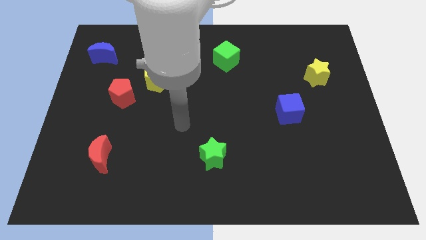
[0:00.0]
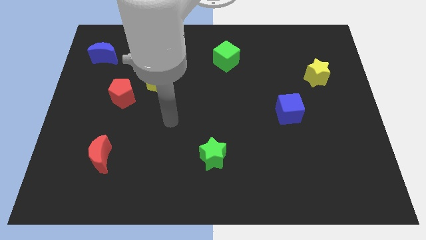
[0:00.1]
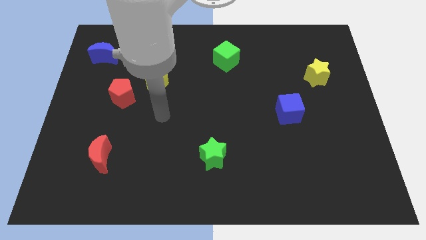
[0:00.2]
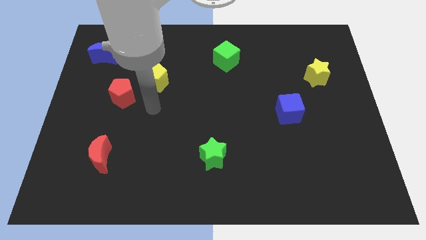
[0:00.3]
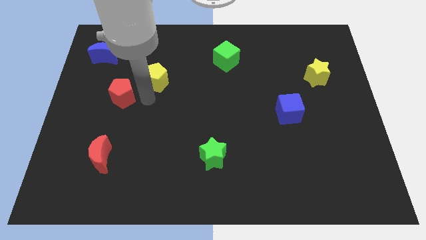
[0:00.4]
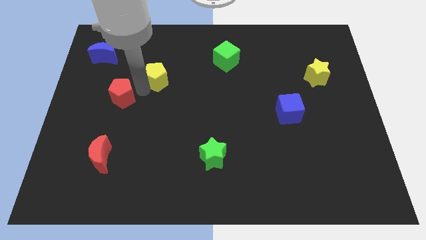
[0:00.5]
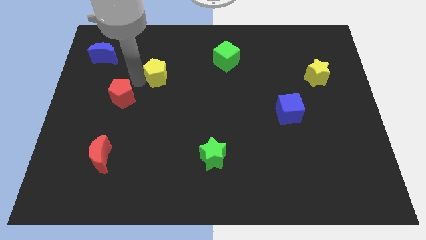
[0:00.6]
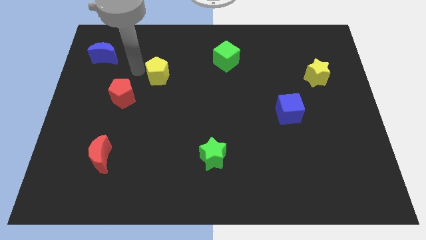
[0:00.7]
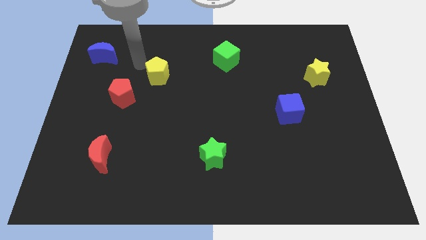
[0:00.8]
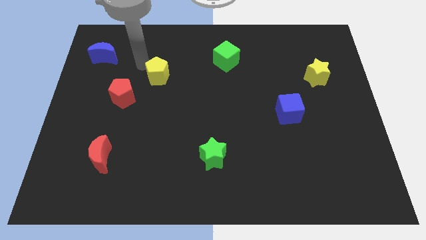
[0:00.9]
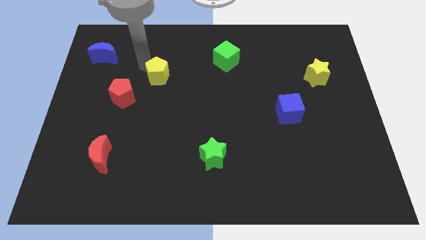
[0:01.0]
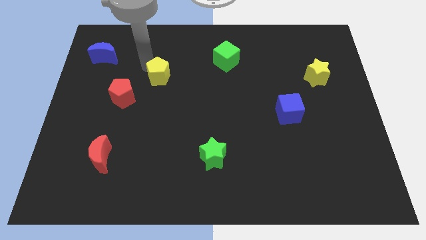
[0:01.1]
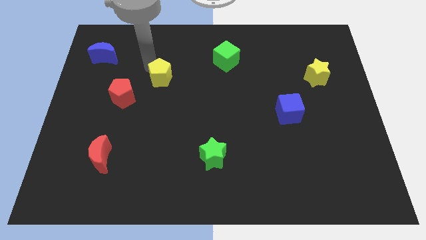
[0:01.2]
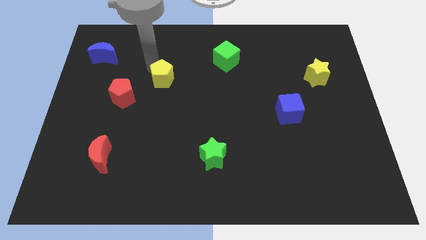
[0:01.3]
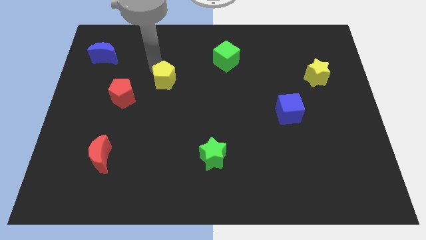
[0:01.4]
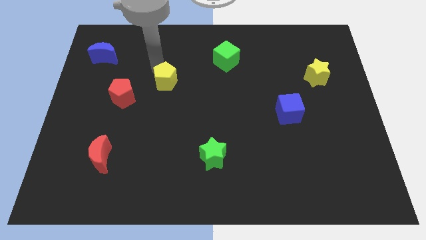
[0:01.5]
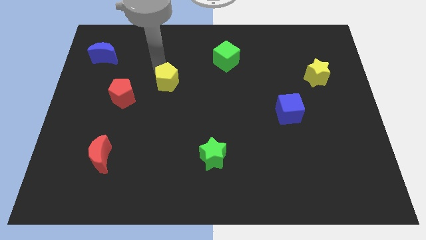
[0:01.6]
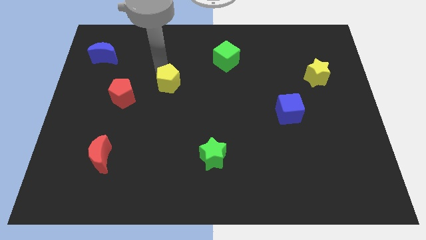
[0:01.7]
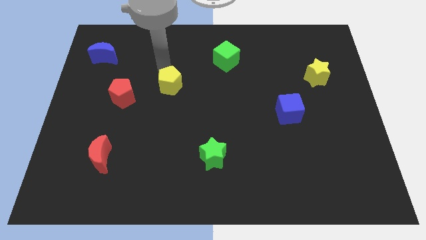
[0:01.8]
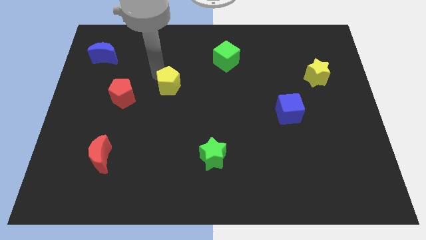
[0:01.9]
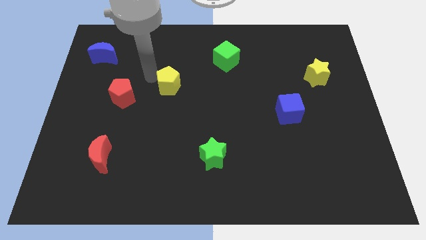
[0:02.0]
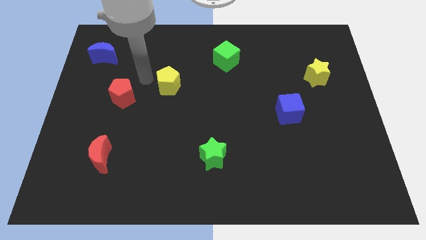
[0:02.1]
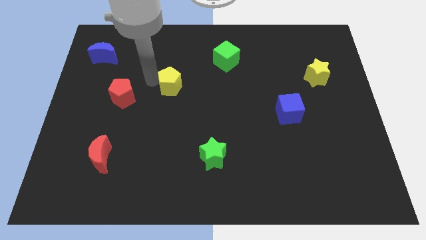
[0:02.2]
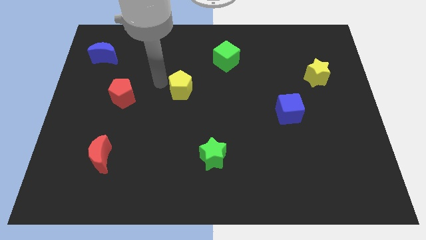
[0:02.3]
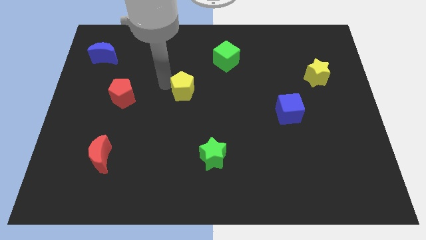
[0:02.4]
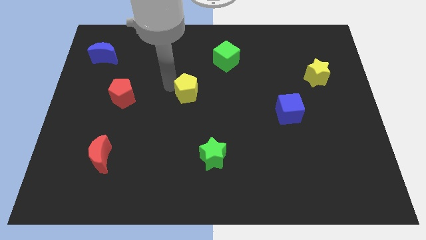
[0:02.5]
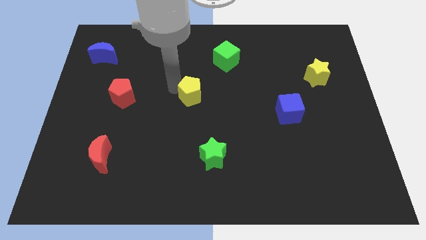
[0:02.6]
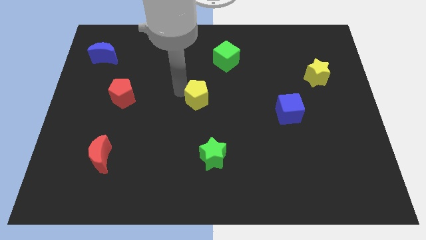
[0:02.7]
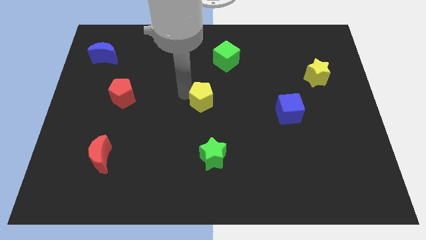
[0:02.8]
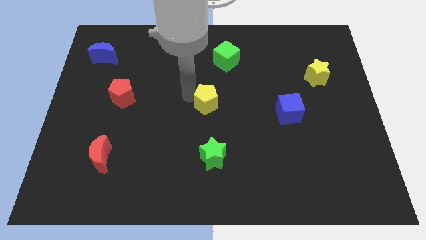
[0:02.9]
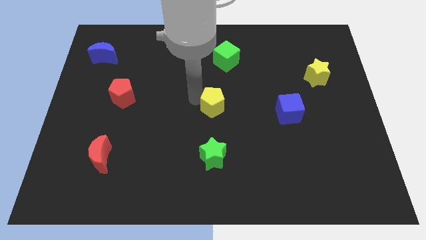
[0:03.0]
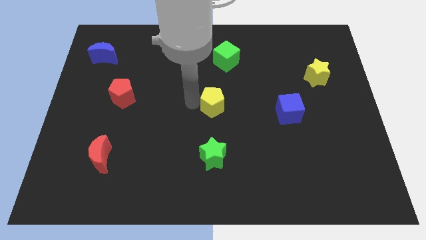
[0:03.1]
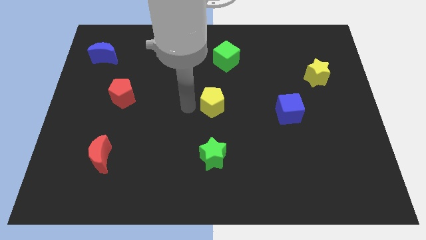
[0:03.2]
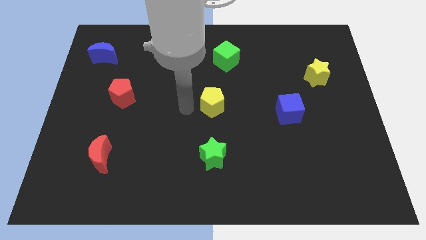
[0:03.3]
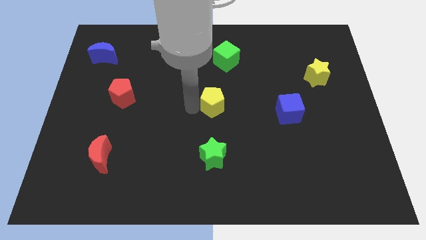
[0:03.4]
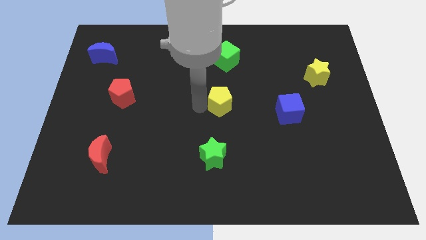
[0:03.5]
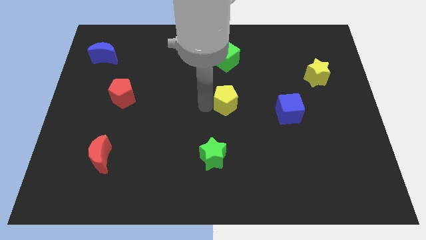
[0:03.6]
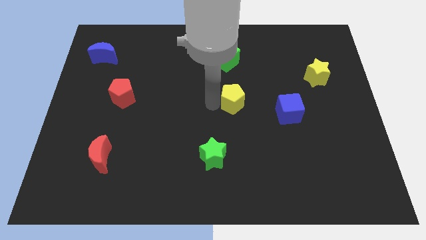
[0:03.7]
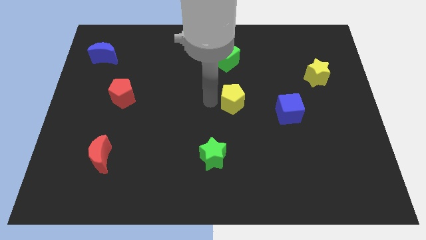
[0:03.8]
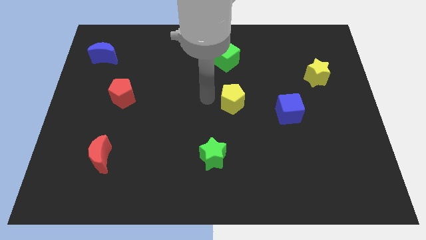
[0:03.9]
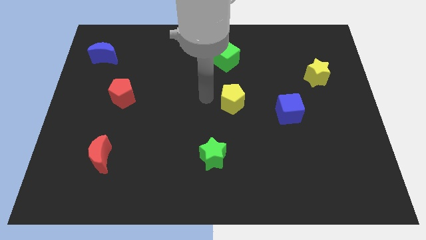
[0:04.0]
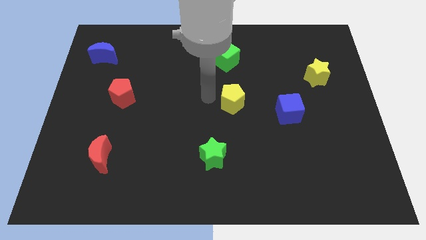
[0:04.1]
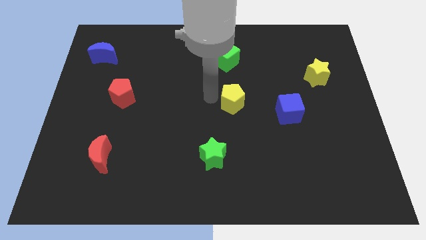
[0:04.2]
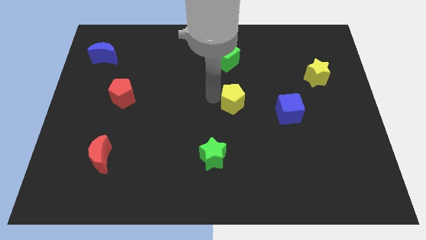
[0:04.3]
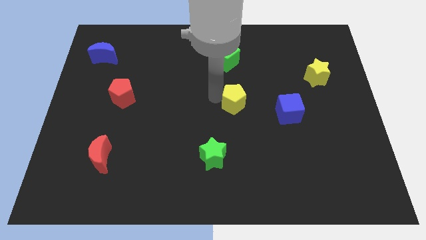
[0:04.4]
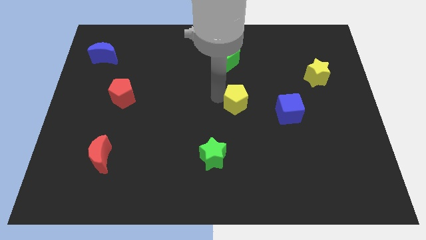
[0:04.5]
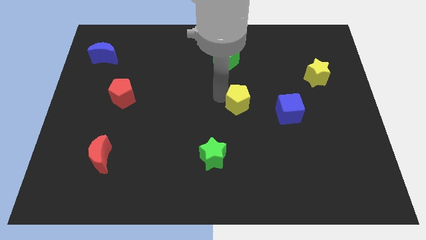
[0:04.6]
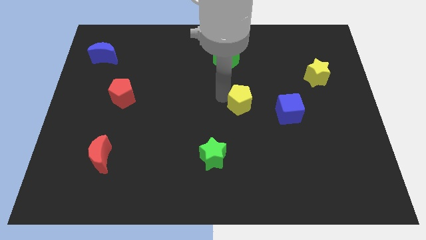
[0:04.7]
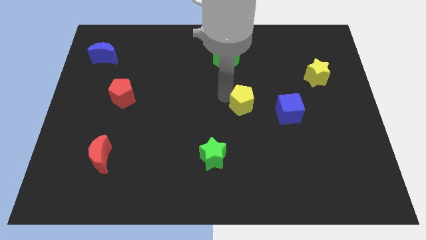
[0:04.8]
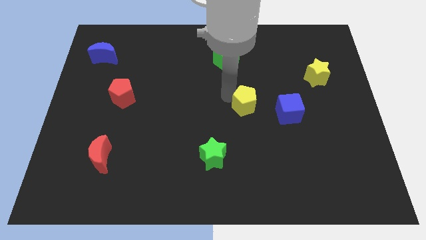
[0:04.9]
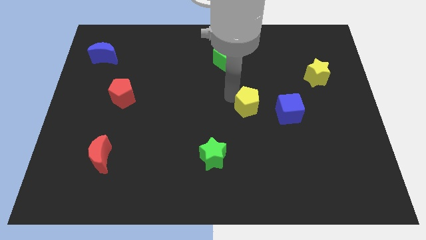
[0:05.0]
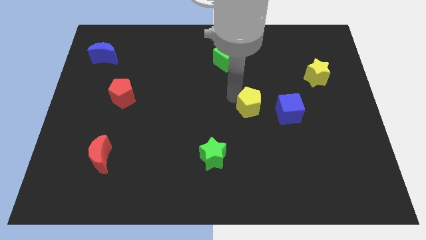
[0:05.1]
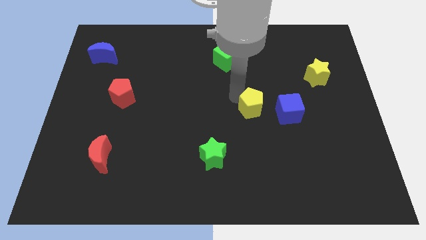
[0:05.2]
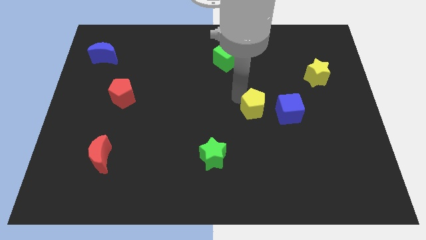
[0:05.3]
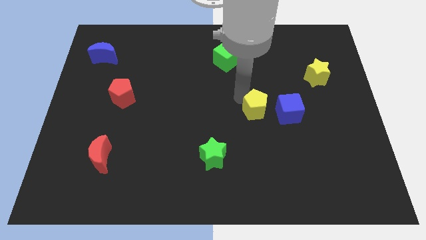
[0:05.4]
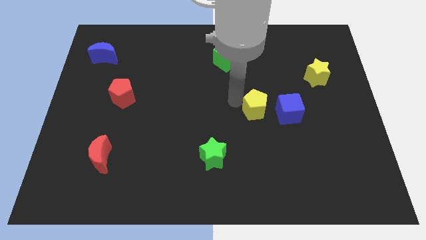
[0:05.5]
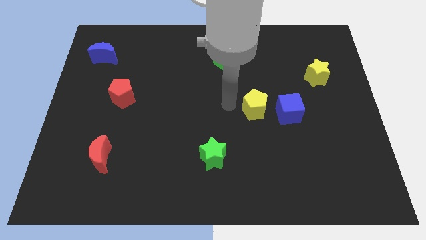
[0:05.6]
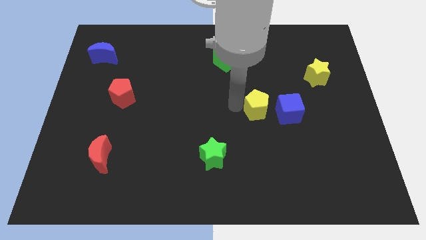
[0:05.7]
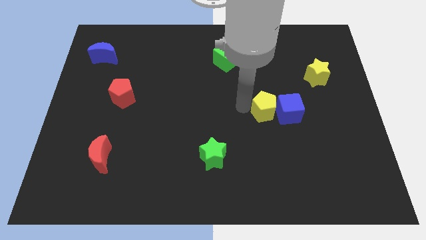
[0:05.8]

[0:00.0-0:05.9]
push the yellow pentagon close to the blue cube

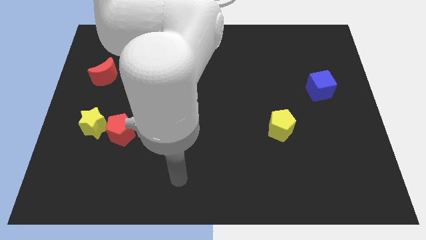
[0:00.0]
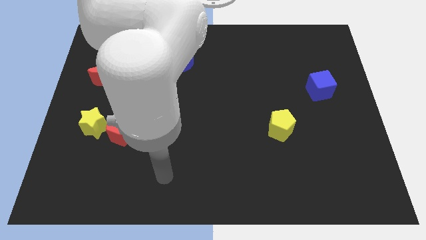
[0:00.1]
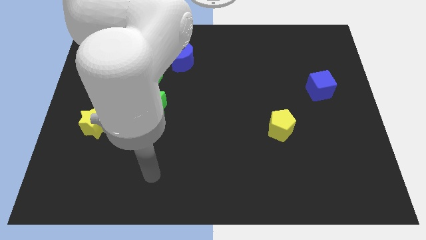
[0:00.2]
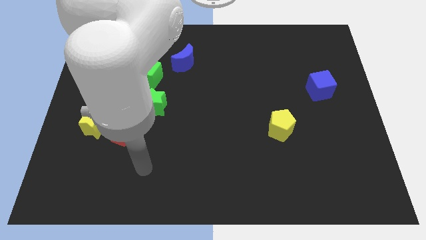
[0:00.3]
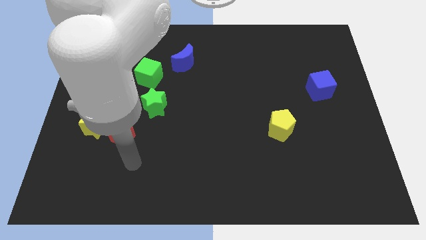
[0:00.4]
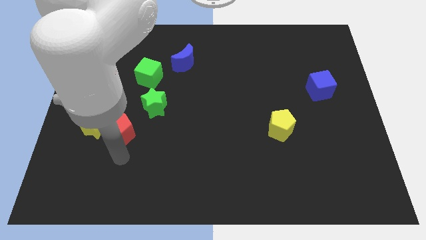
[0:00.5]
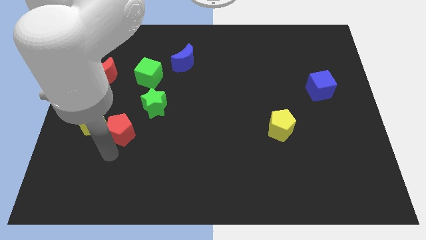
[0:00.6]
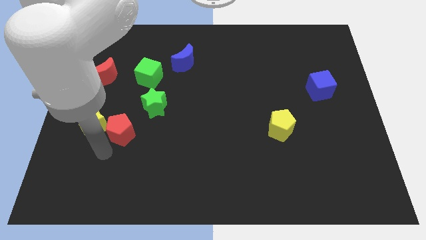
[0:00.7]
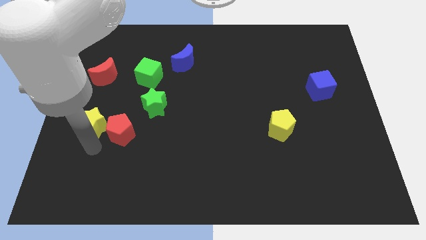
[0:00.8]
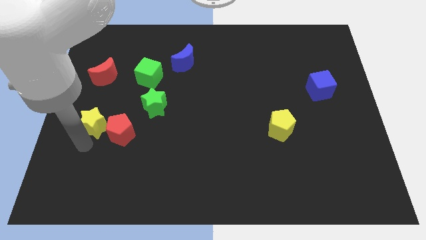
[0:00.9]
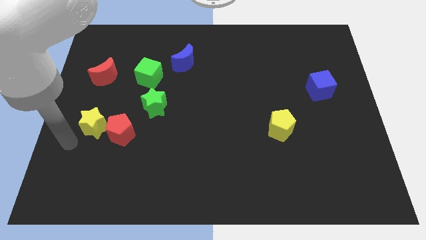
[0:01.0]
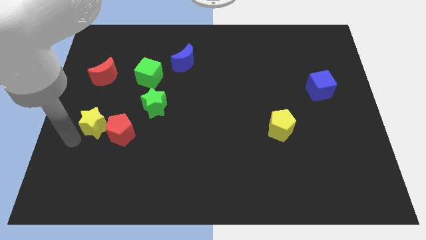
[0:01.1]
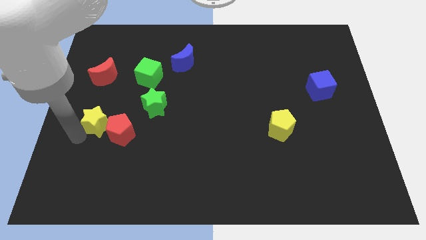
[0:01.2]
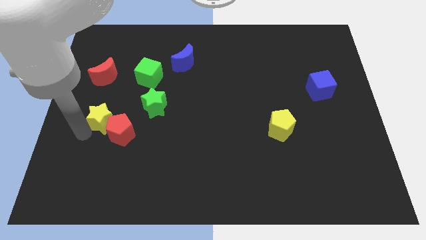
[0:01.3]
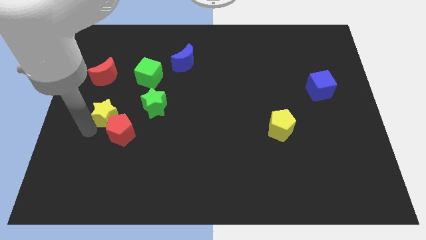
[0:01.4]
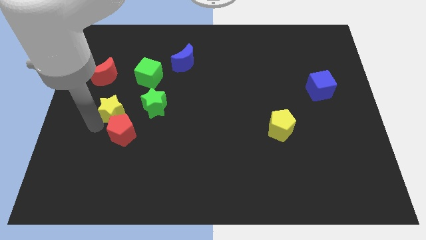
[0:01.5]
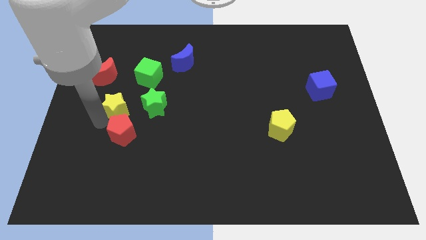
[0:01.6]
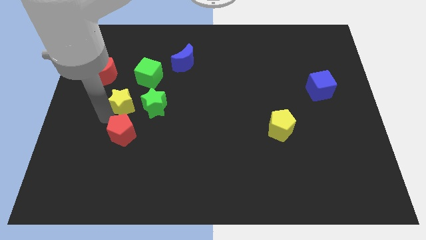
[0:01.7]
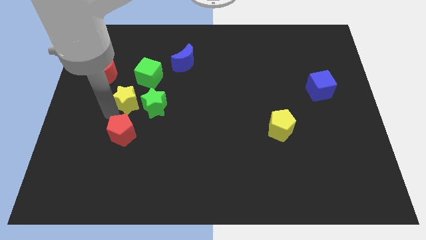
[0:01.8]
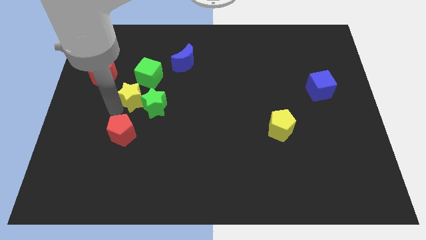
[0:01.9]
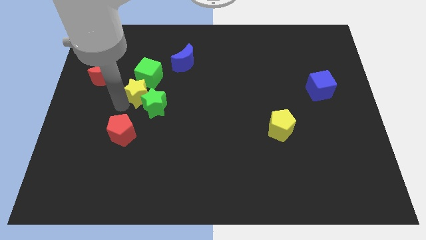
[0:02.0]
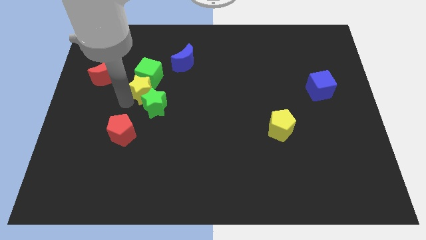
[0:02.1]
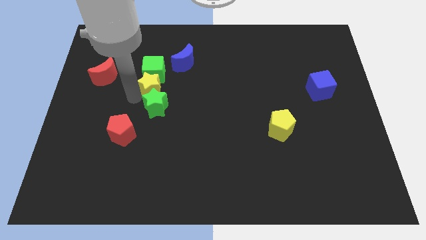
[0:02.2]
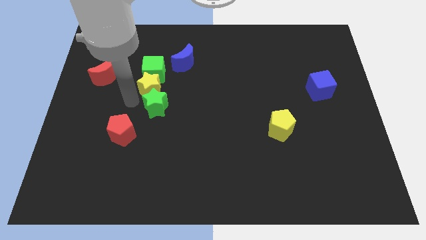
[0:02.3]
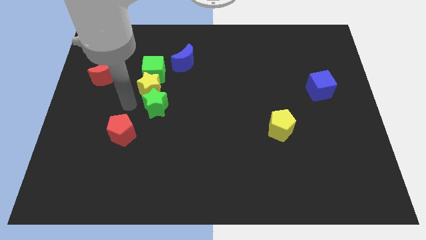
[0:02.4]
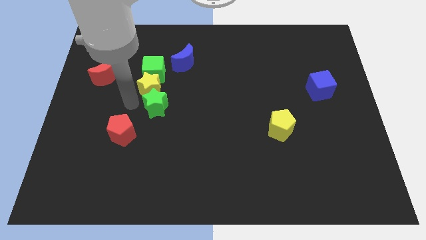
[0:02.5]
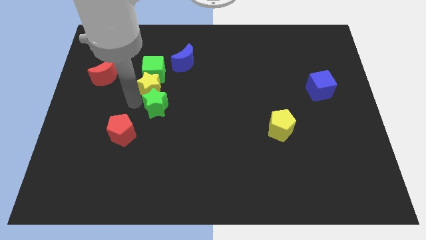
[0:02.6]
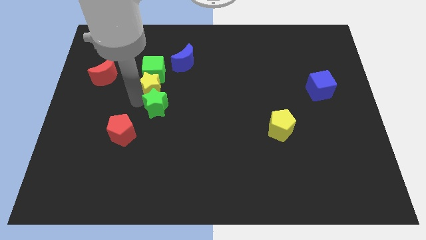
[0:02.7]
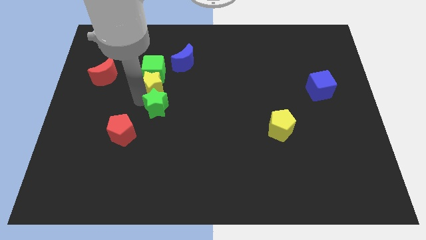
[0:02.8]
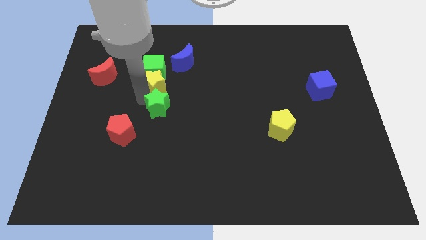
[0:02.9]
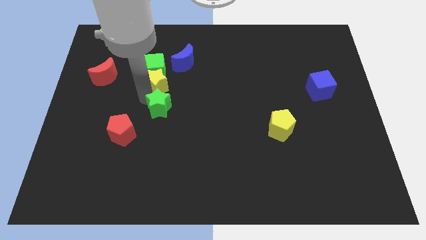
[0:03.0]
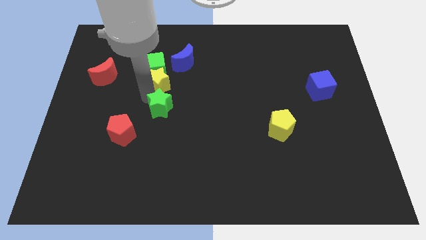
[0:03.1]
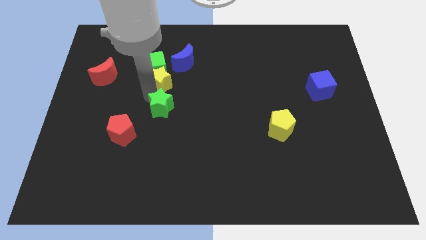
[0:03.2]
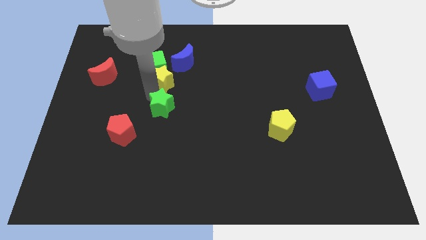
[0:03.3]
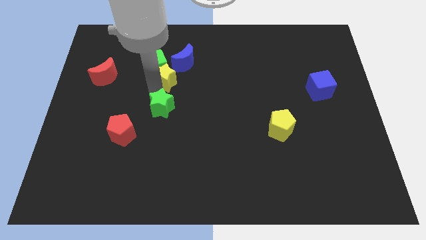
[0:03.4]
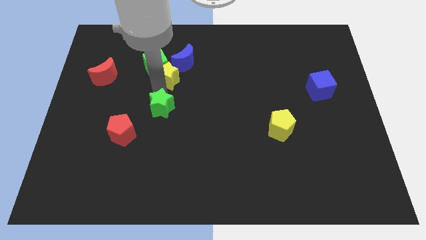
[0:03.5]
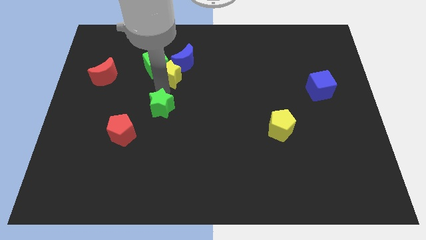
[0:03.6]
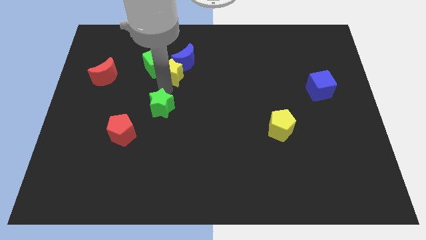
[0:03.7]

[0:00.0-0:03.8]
put the yellow star to the blue moon
